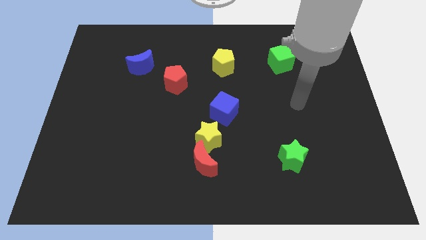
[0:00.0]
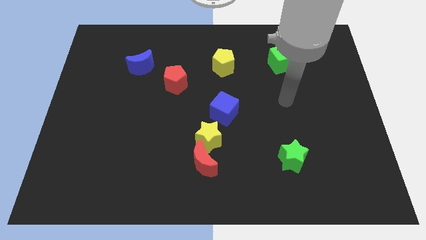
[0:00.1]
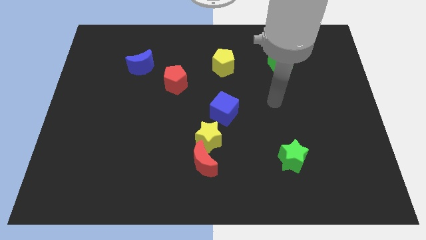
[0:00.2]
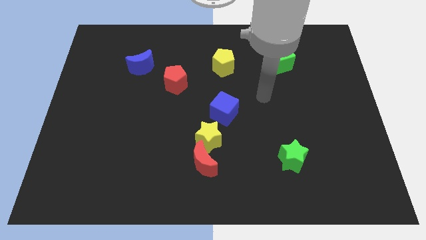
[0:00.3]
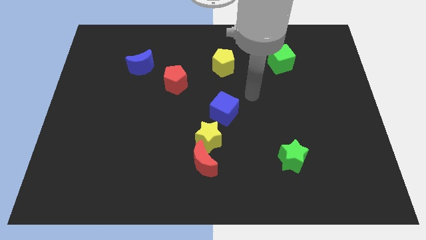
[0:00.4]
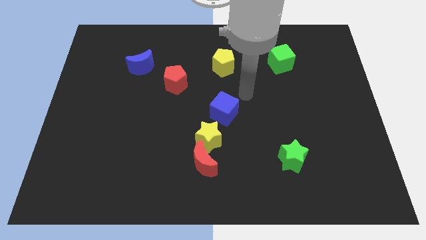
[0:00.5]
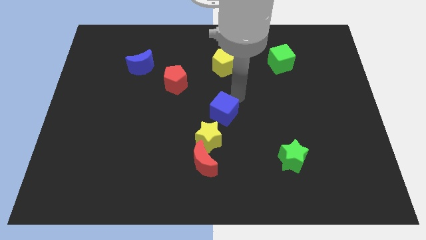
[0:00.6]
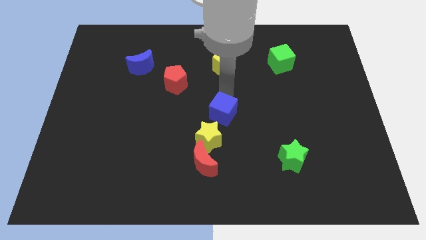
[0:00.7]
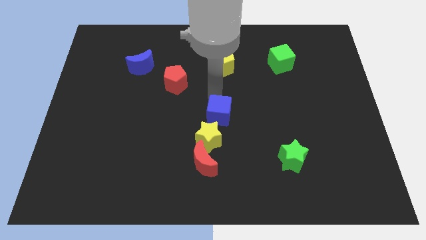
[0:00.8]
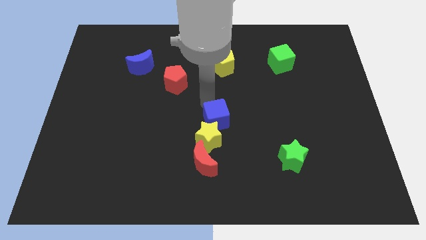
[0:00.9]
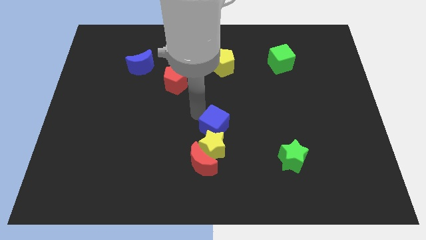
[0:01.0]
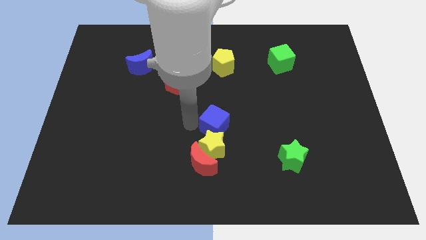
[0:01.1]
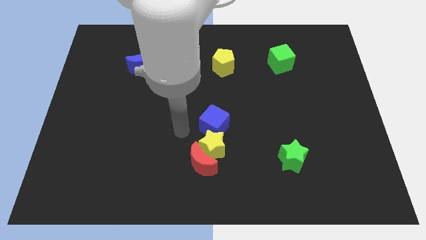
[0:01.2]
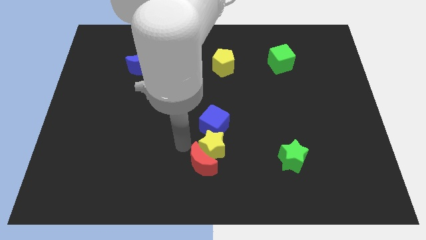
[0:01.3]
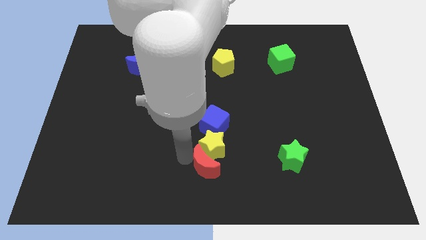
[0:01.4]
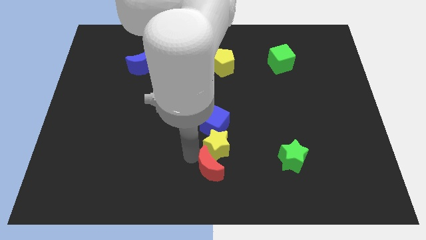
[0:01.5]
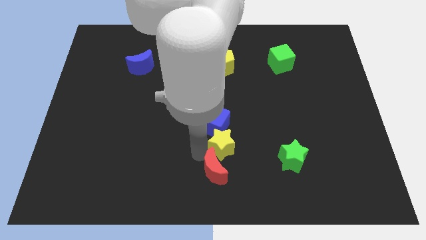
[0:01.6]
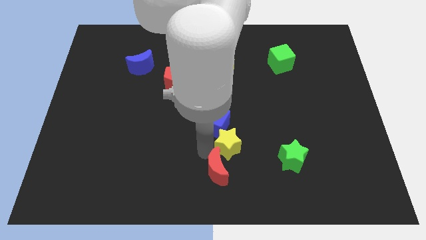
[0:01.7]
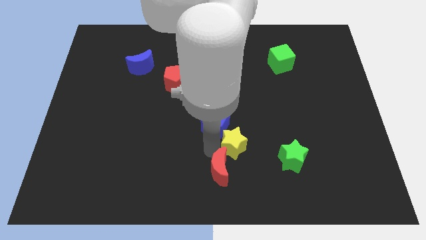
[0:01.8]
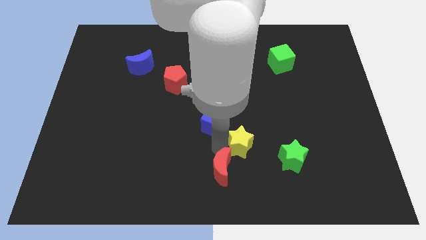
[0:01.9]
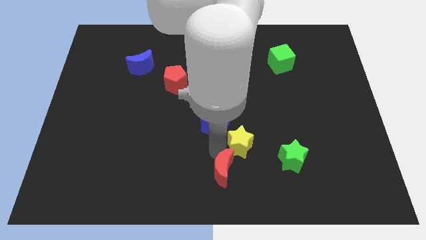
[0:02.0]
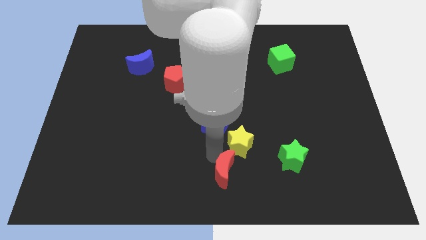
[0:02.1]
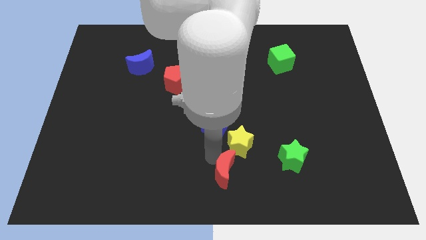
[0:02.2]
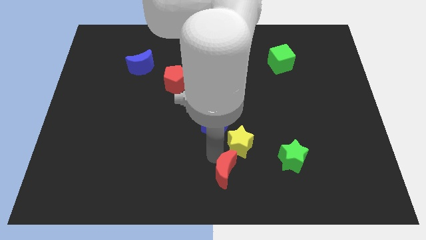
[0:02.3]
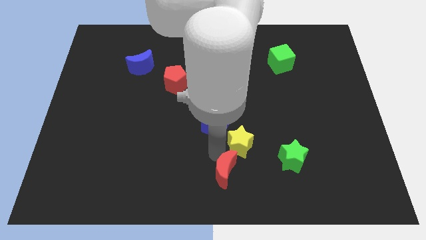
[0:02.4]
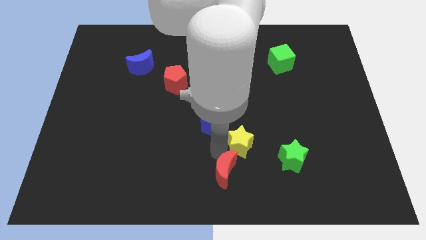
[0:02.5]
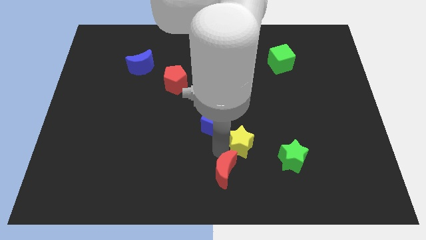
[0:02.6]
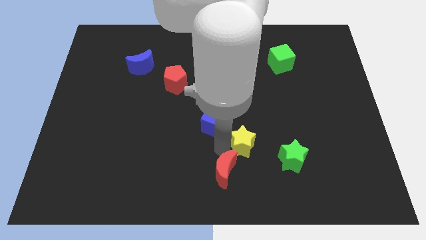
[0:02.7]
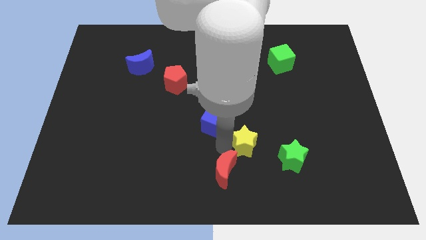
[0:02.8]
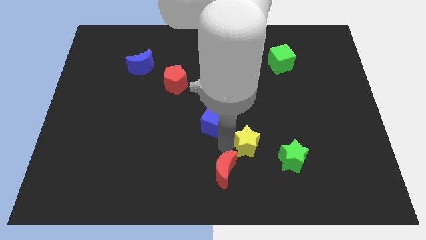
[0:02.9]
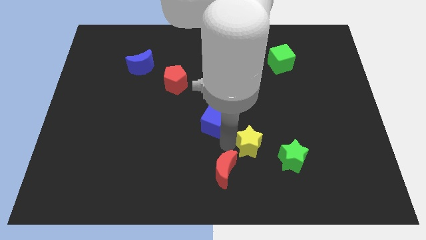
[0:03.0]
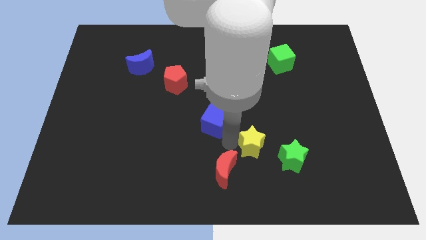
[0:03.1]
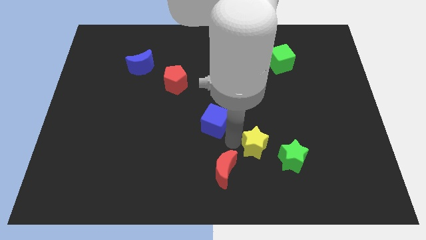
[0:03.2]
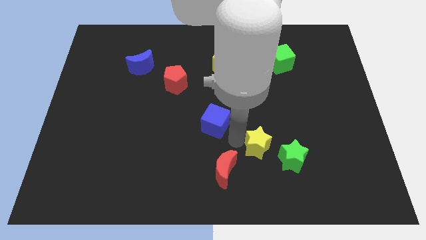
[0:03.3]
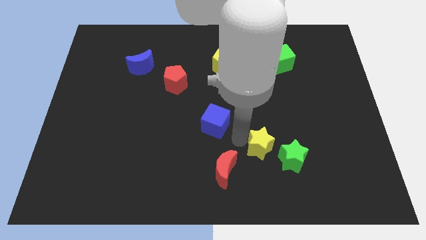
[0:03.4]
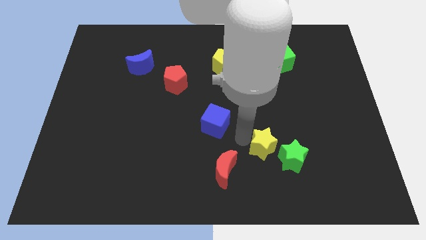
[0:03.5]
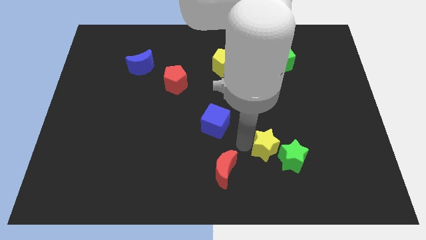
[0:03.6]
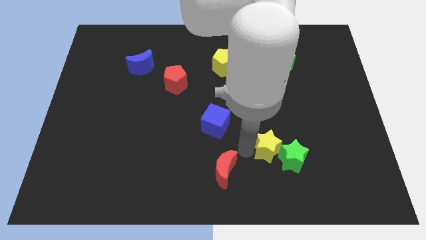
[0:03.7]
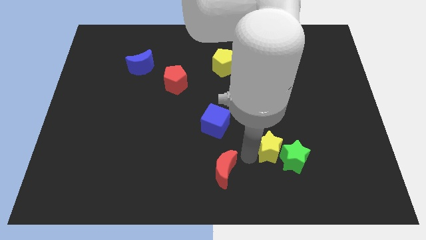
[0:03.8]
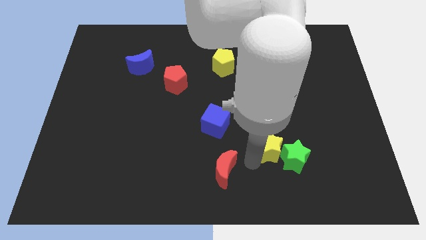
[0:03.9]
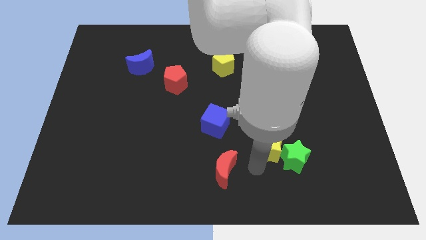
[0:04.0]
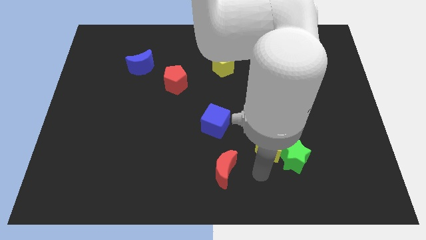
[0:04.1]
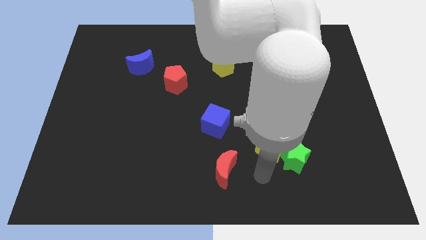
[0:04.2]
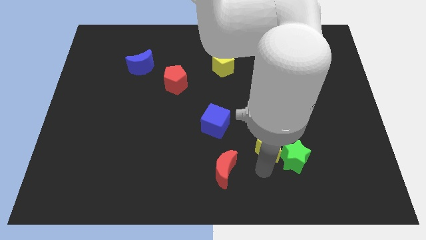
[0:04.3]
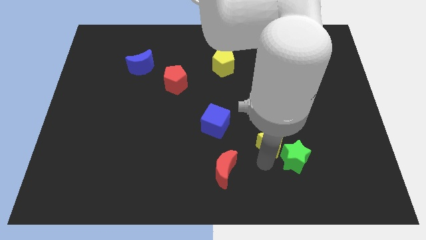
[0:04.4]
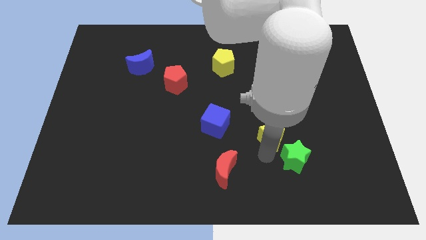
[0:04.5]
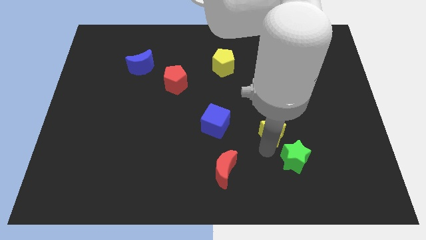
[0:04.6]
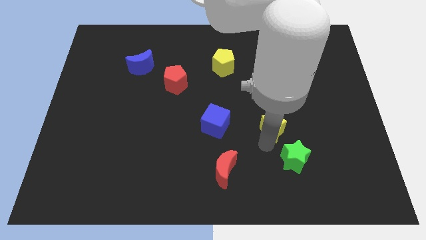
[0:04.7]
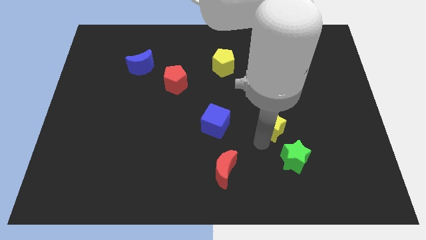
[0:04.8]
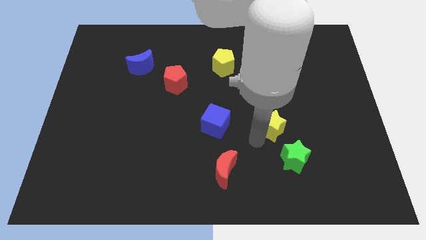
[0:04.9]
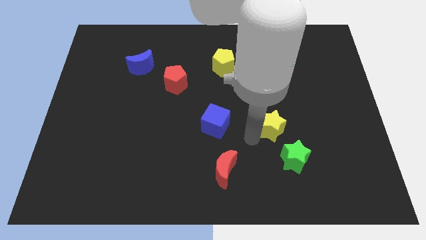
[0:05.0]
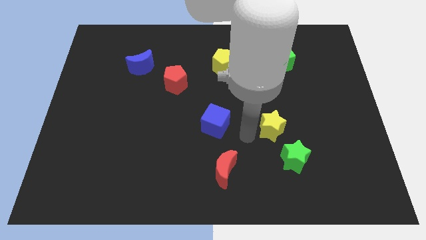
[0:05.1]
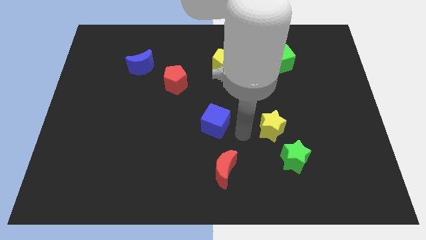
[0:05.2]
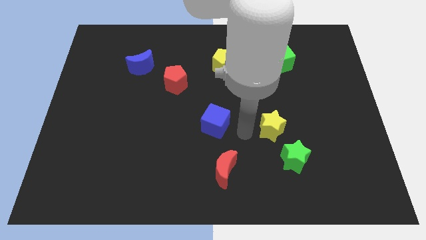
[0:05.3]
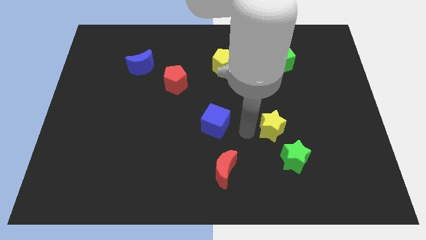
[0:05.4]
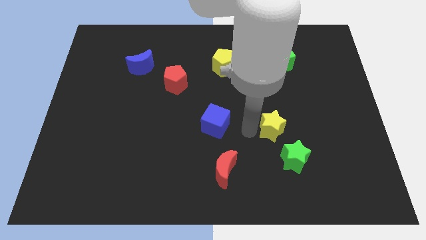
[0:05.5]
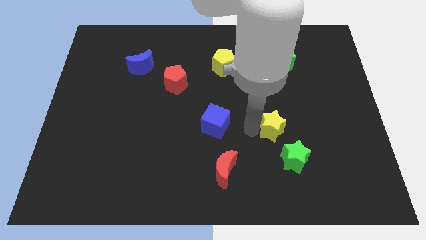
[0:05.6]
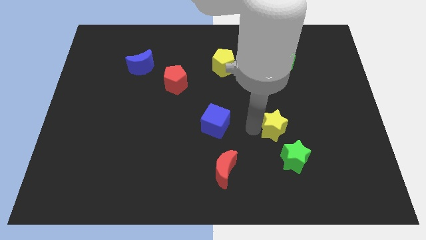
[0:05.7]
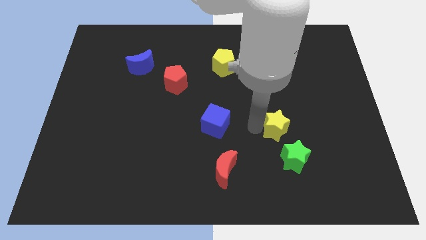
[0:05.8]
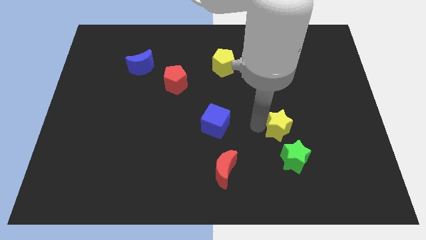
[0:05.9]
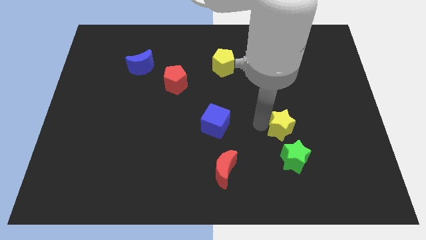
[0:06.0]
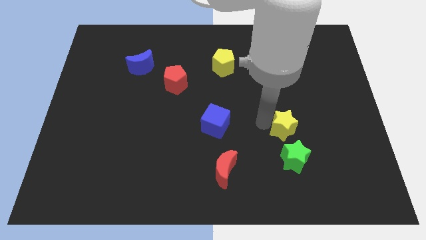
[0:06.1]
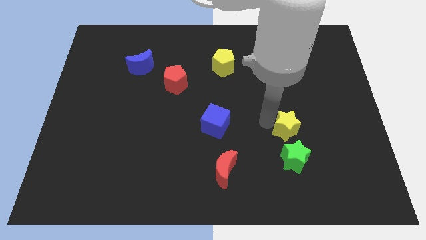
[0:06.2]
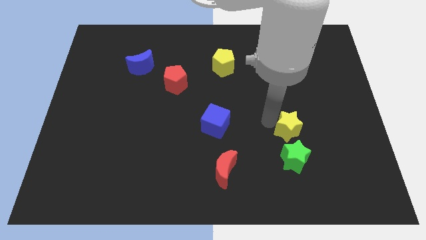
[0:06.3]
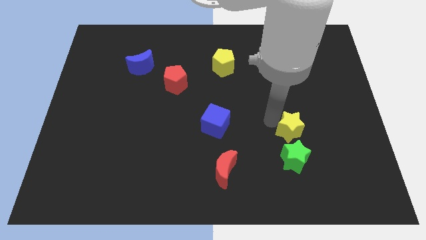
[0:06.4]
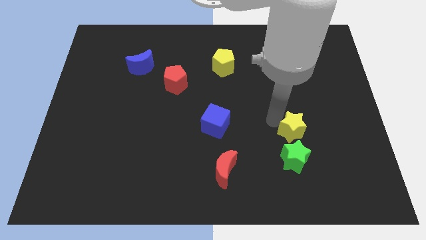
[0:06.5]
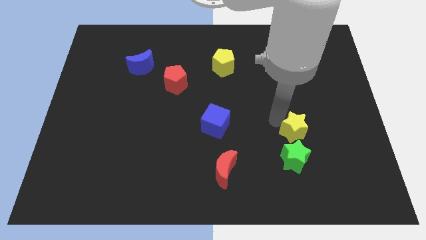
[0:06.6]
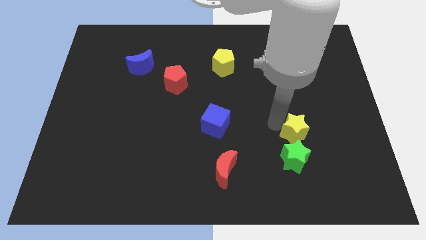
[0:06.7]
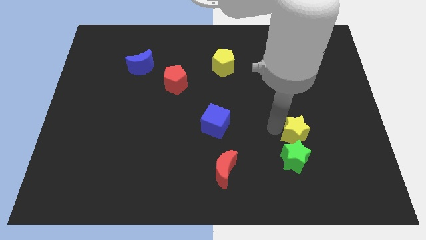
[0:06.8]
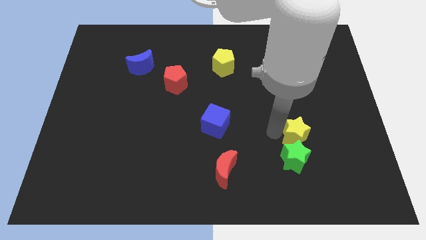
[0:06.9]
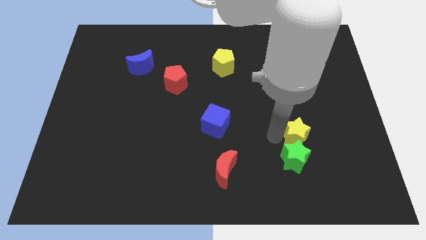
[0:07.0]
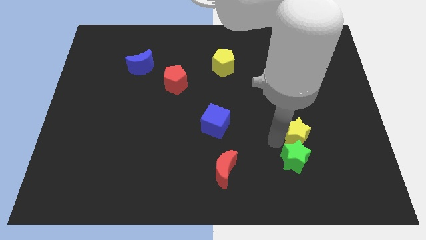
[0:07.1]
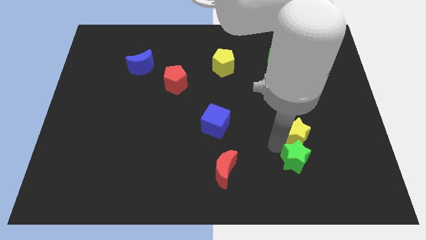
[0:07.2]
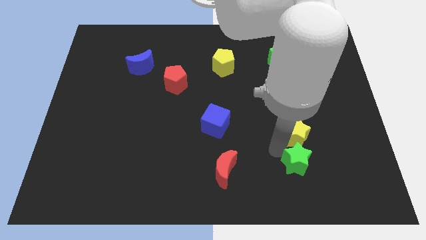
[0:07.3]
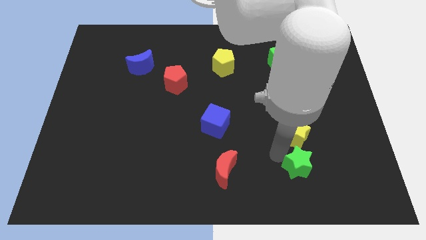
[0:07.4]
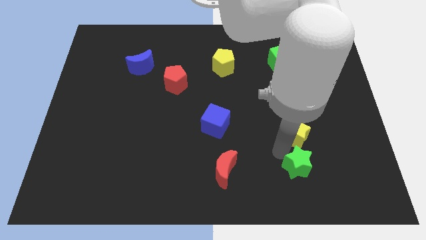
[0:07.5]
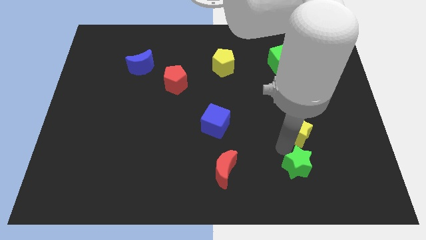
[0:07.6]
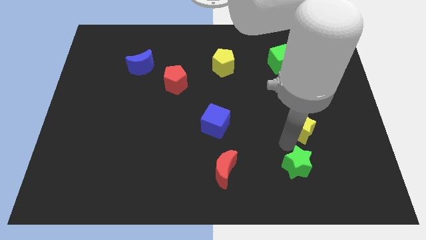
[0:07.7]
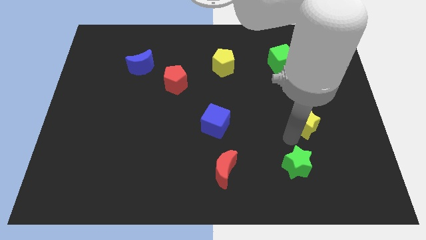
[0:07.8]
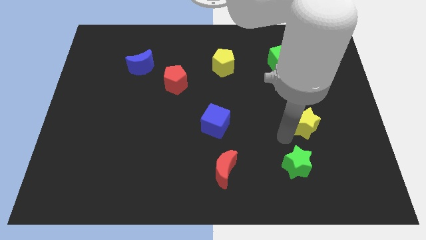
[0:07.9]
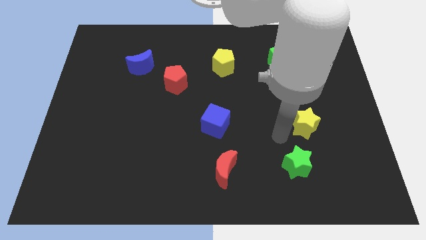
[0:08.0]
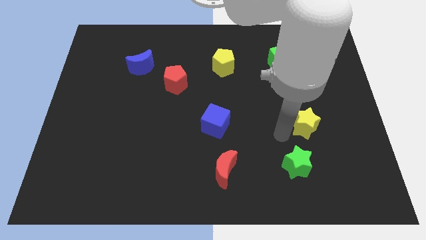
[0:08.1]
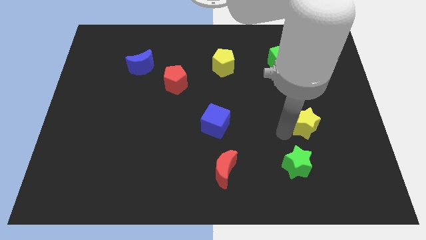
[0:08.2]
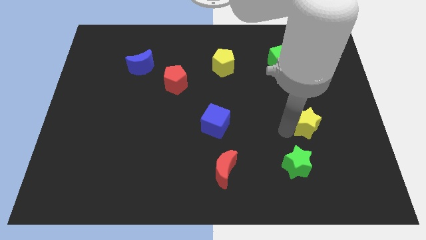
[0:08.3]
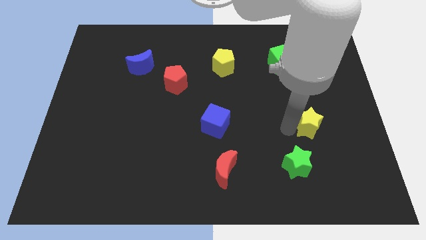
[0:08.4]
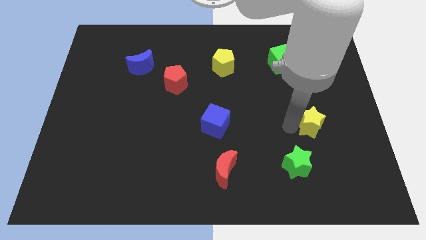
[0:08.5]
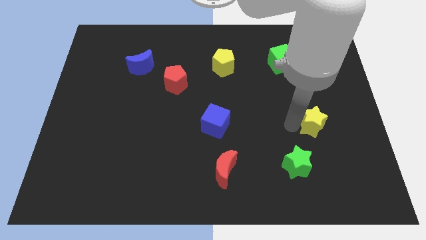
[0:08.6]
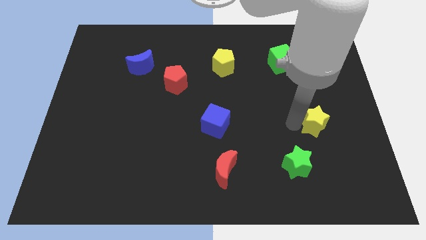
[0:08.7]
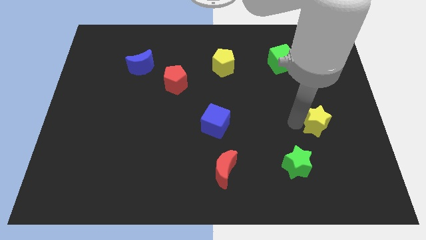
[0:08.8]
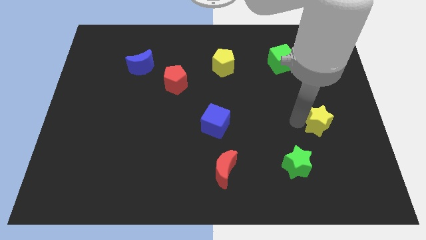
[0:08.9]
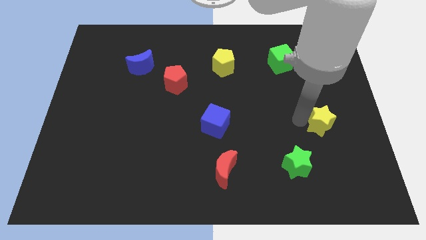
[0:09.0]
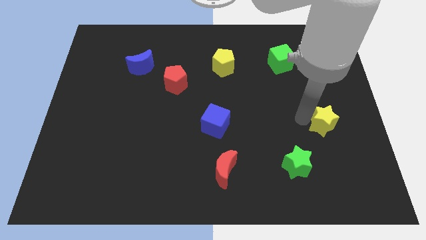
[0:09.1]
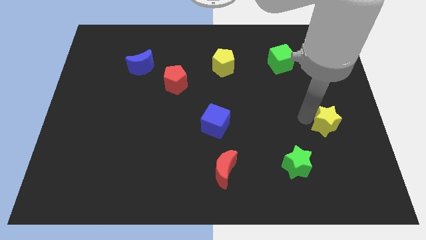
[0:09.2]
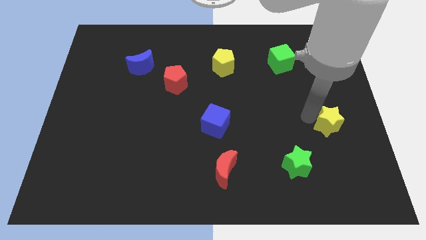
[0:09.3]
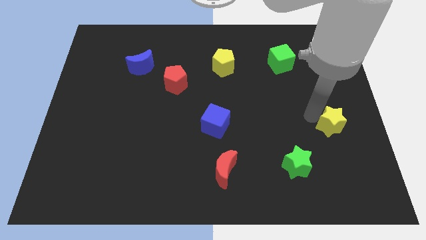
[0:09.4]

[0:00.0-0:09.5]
slide the yellow star to the center right
